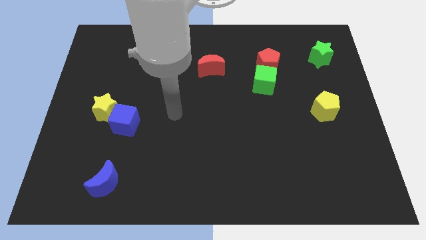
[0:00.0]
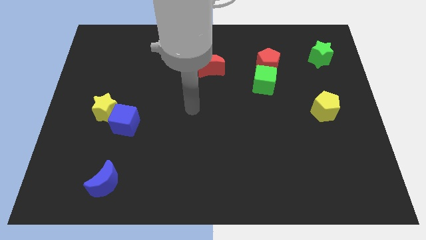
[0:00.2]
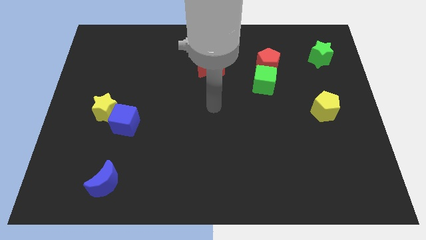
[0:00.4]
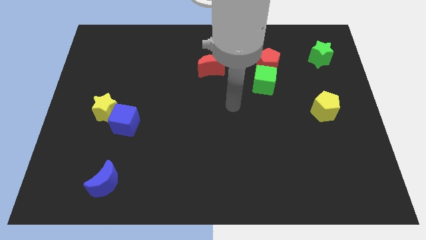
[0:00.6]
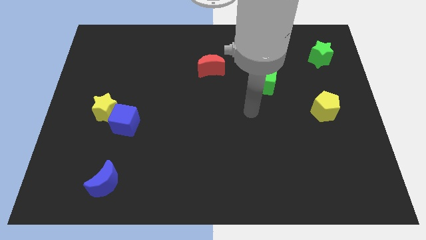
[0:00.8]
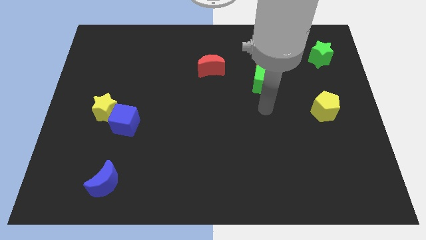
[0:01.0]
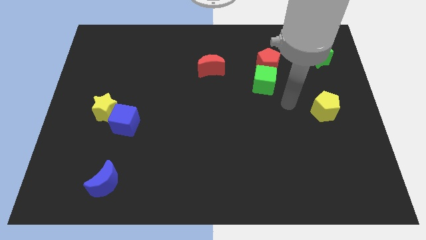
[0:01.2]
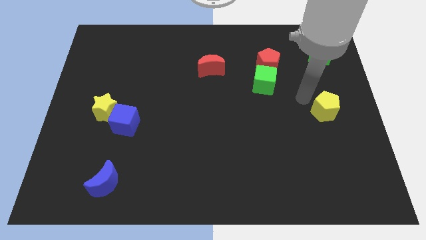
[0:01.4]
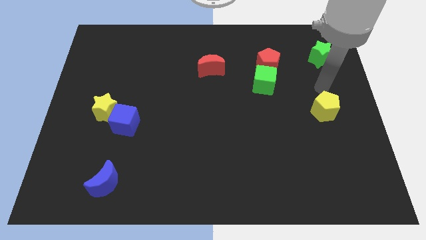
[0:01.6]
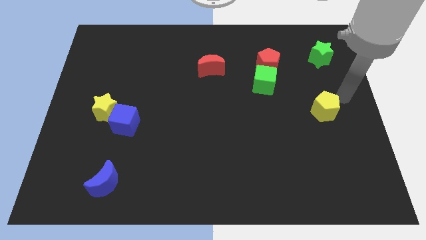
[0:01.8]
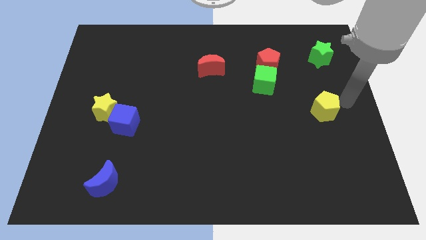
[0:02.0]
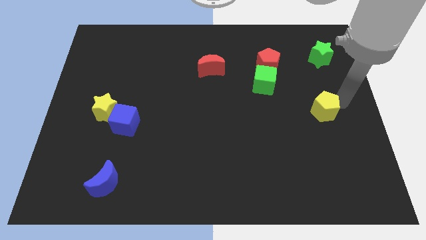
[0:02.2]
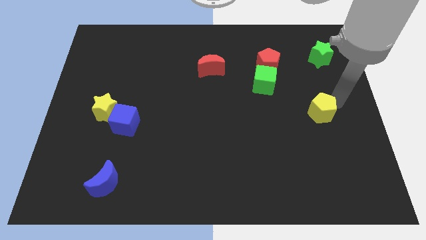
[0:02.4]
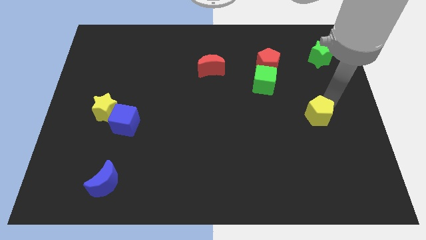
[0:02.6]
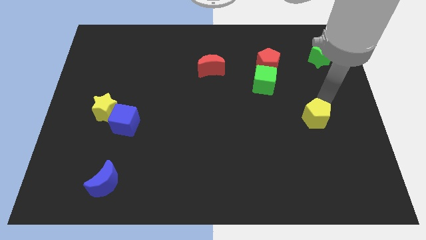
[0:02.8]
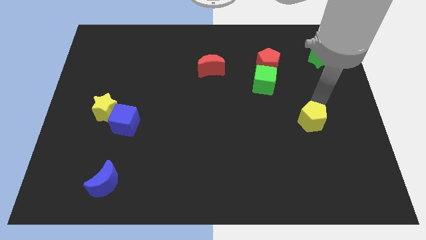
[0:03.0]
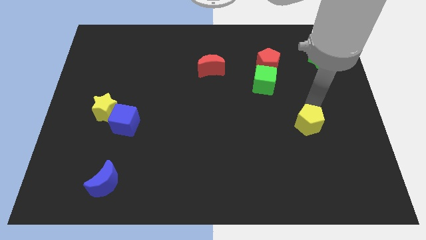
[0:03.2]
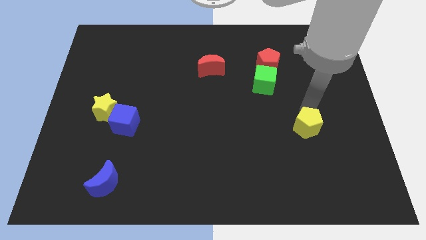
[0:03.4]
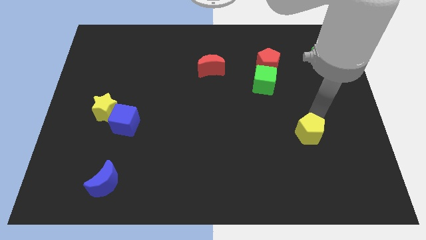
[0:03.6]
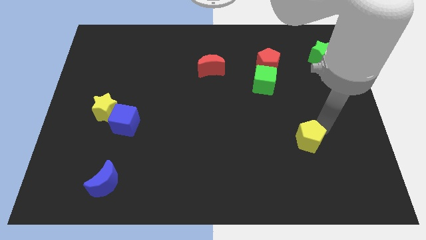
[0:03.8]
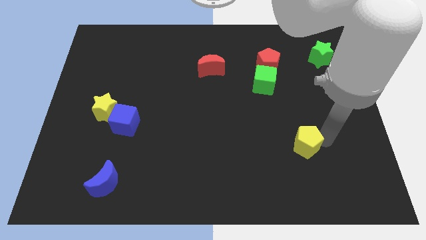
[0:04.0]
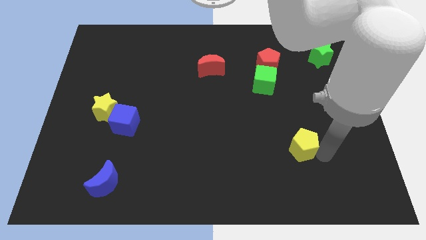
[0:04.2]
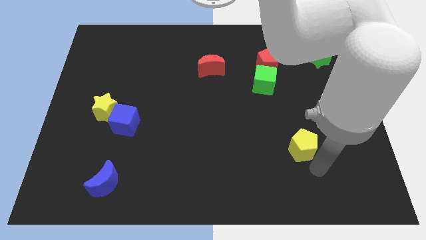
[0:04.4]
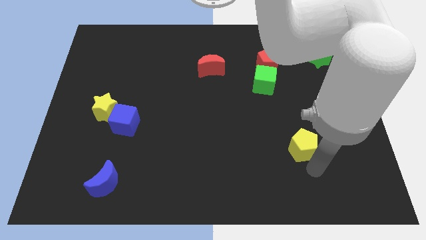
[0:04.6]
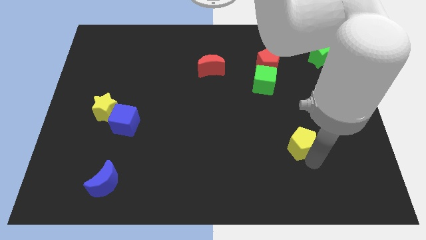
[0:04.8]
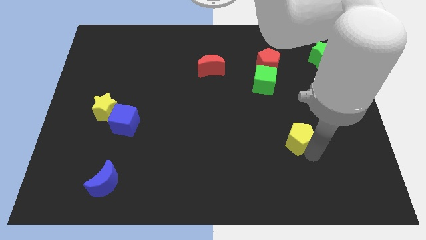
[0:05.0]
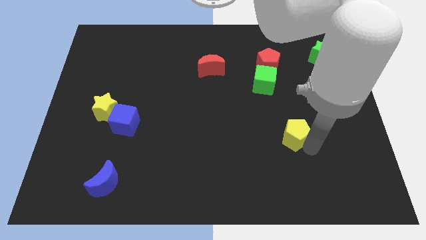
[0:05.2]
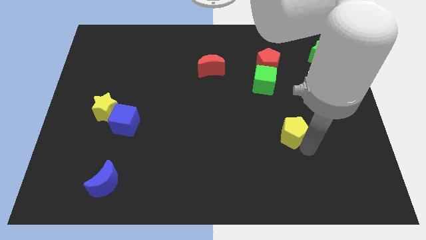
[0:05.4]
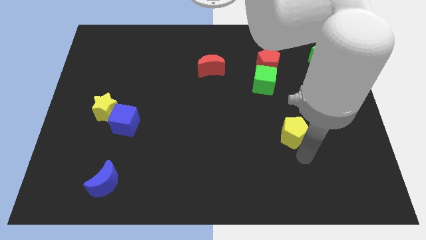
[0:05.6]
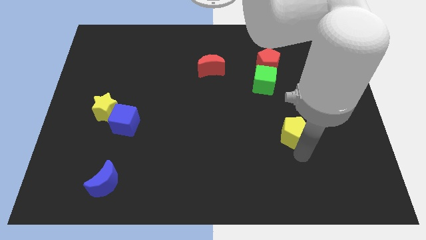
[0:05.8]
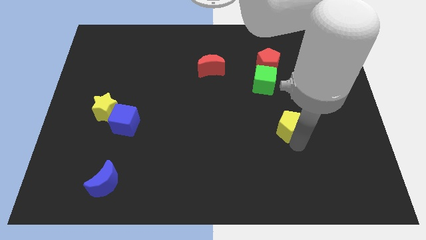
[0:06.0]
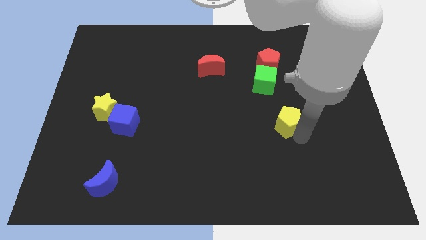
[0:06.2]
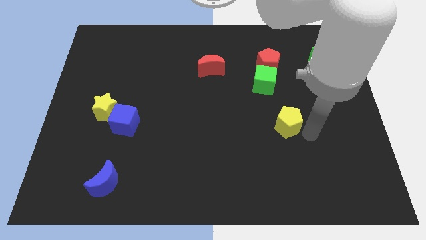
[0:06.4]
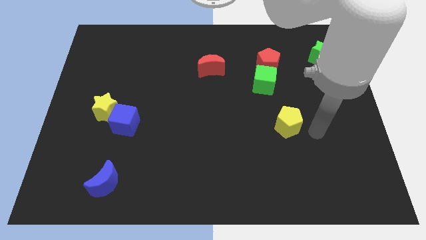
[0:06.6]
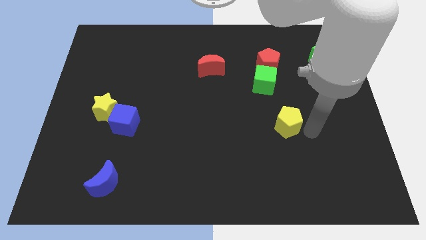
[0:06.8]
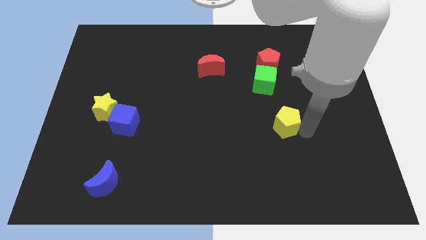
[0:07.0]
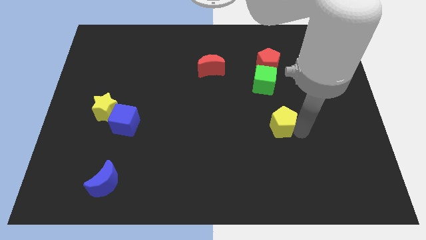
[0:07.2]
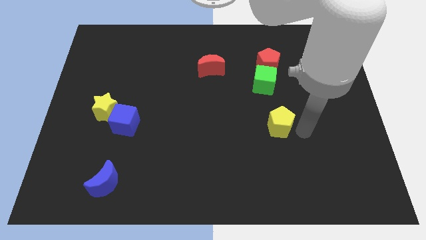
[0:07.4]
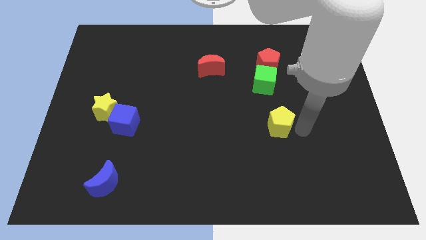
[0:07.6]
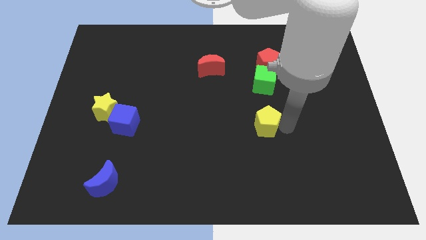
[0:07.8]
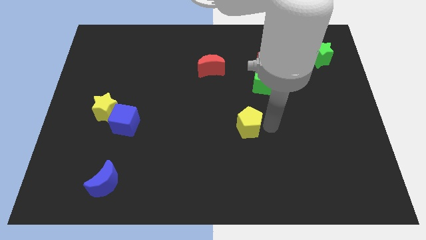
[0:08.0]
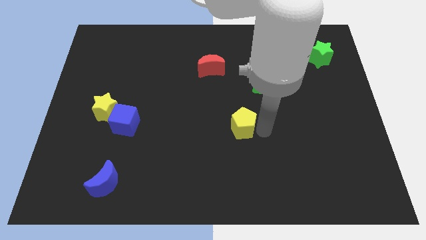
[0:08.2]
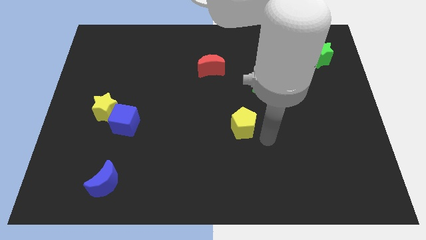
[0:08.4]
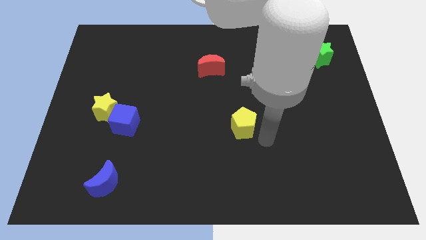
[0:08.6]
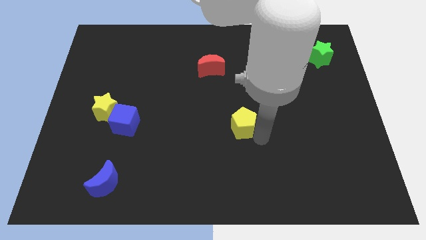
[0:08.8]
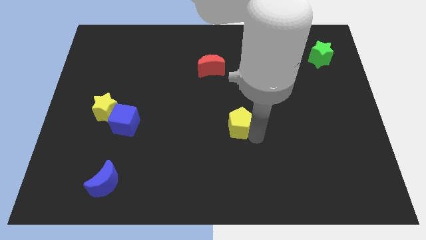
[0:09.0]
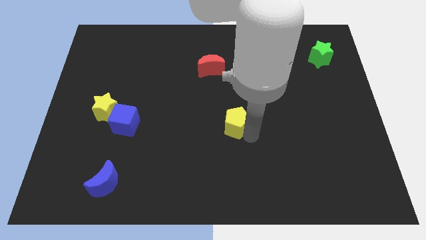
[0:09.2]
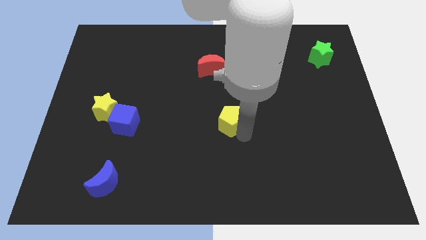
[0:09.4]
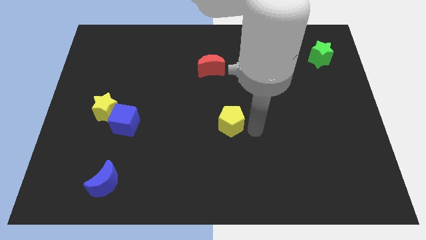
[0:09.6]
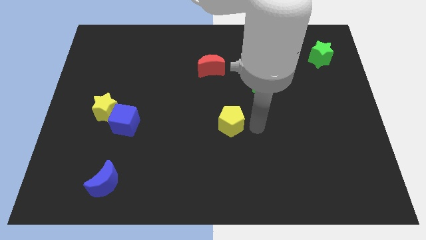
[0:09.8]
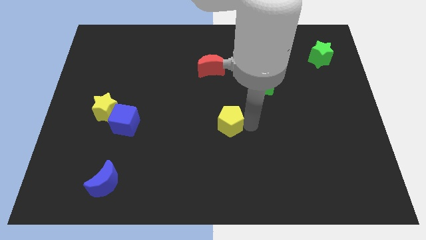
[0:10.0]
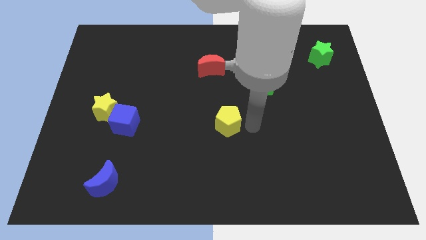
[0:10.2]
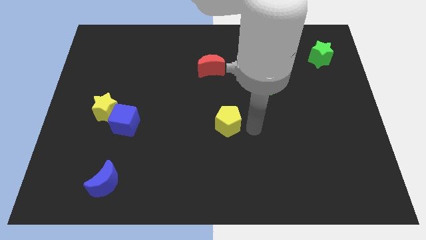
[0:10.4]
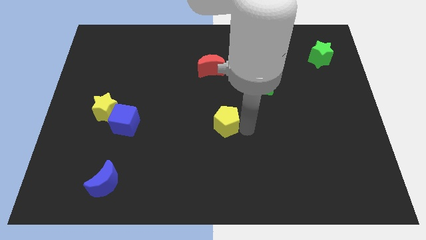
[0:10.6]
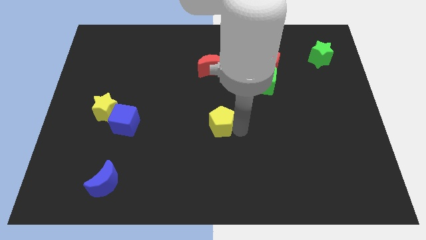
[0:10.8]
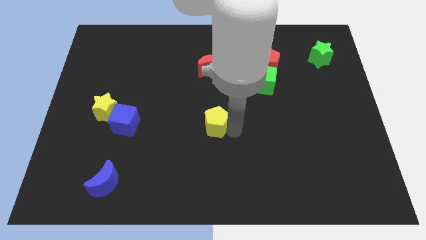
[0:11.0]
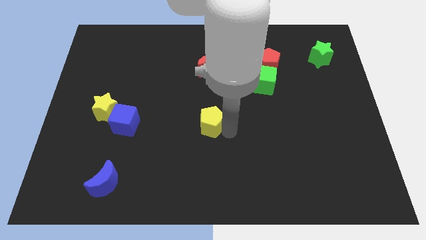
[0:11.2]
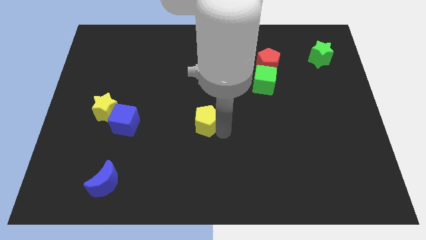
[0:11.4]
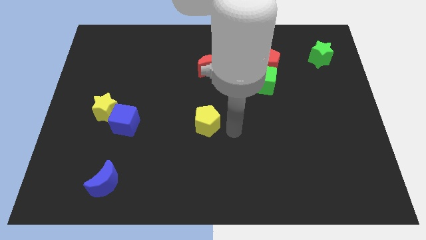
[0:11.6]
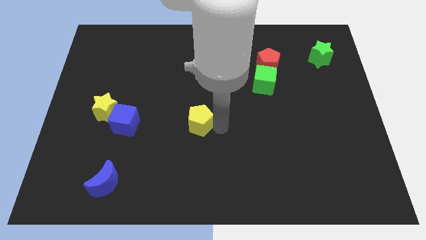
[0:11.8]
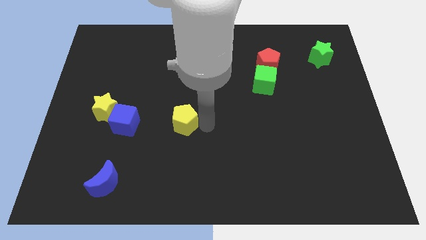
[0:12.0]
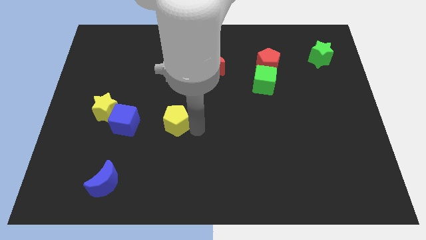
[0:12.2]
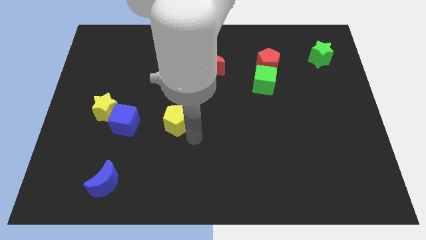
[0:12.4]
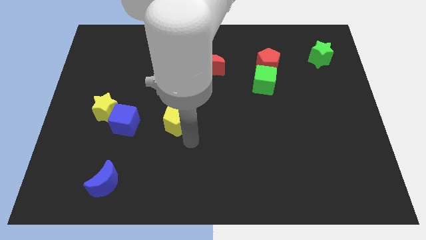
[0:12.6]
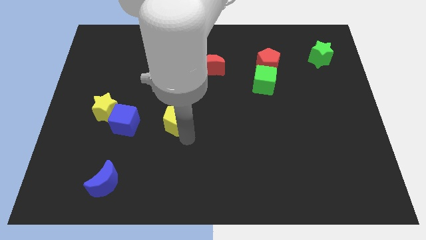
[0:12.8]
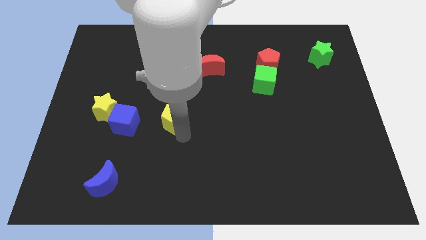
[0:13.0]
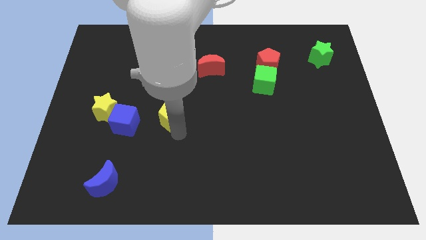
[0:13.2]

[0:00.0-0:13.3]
push the yellow pentagon right of the yellow star

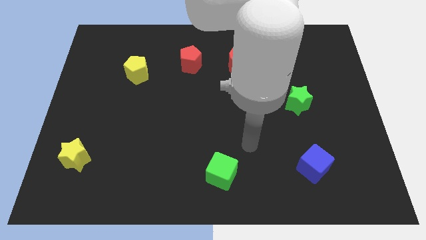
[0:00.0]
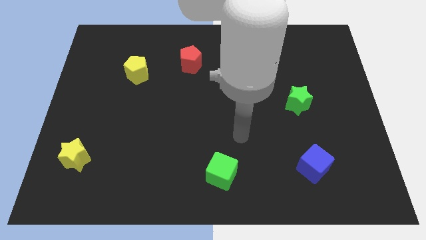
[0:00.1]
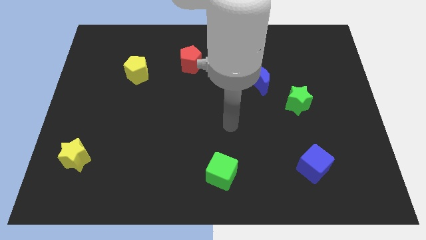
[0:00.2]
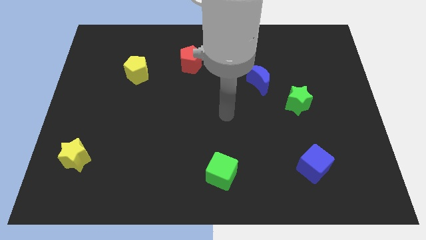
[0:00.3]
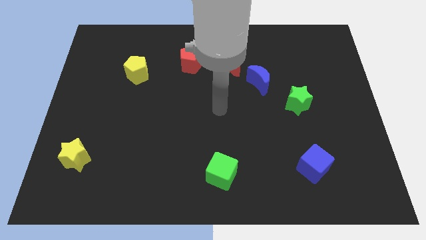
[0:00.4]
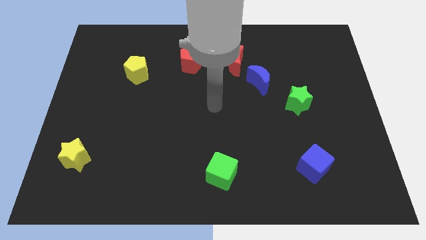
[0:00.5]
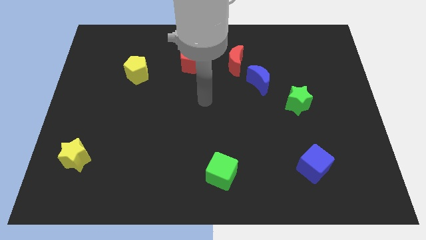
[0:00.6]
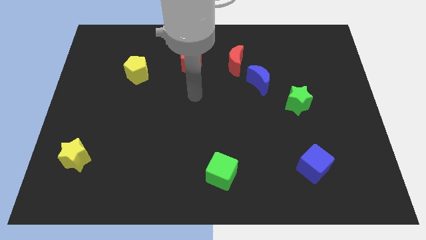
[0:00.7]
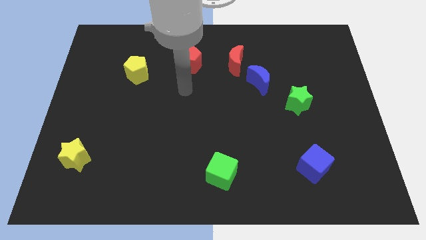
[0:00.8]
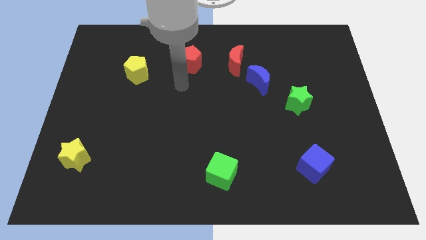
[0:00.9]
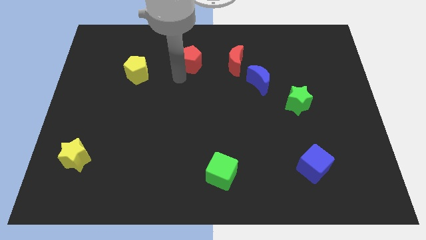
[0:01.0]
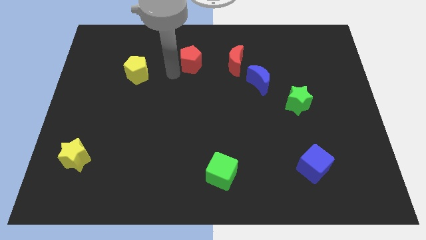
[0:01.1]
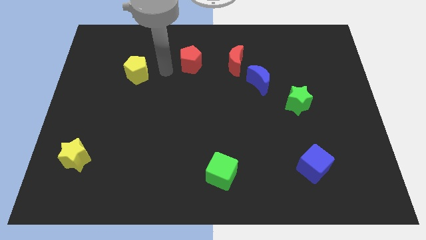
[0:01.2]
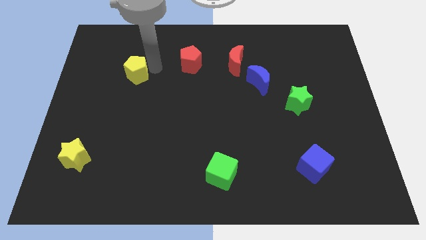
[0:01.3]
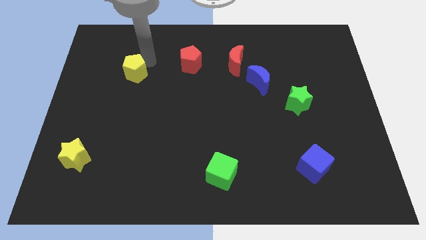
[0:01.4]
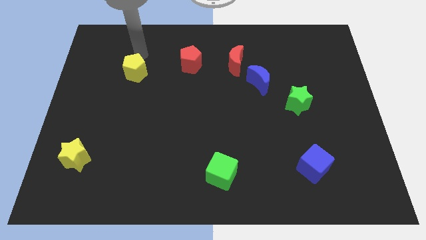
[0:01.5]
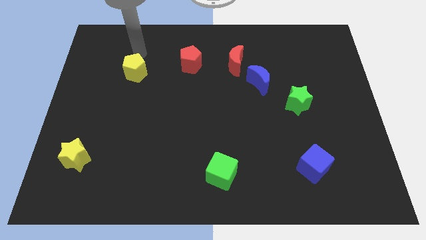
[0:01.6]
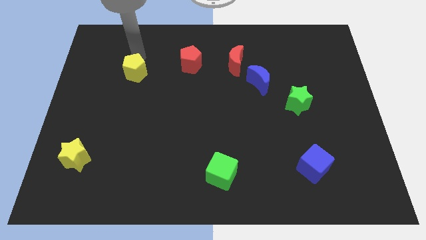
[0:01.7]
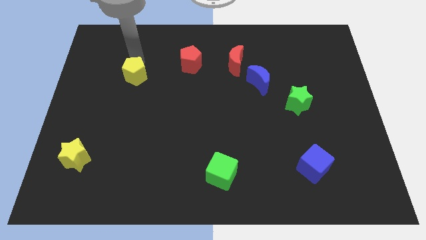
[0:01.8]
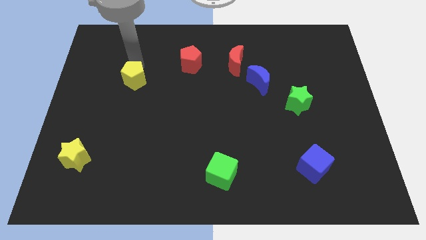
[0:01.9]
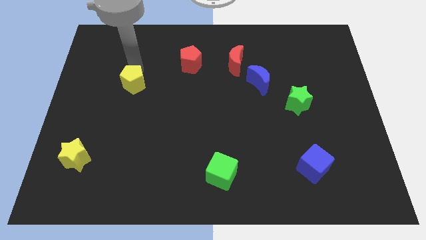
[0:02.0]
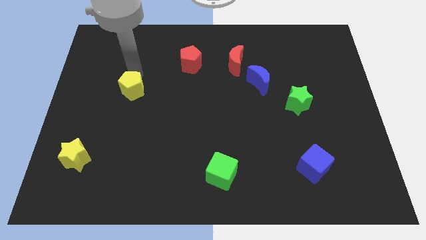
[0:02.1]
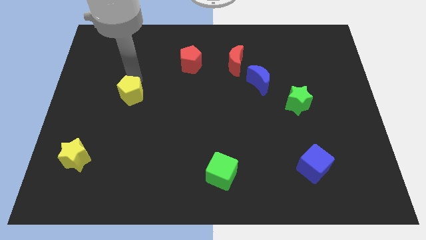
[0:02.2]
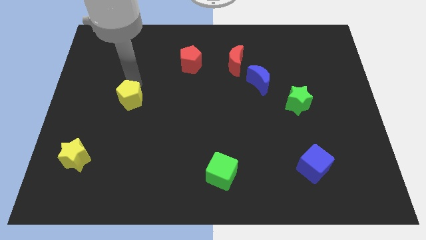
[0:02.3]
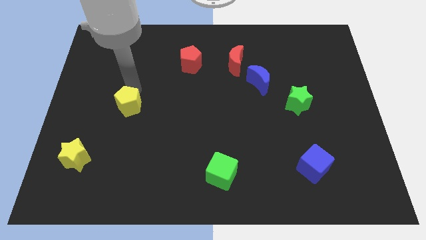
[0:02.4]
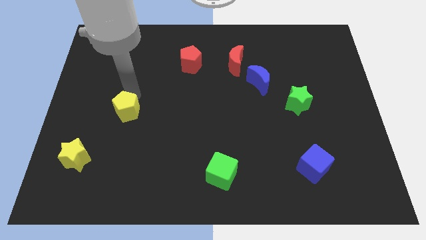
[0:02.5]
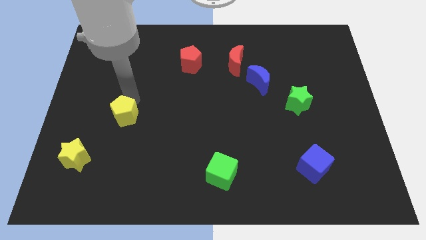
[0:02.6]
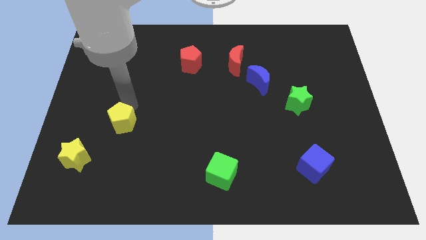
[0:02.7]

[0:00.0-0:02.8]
push the yellow pentagon diagonally up and to the right of the yellow star
